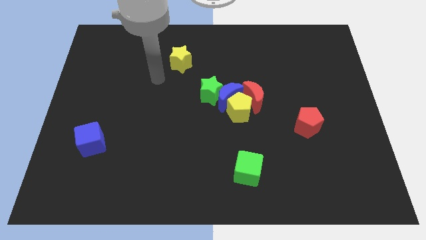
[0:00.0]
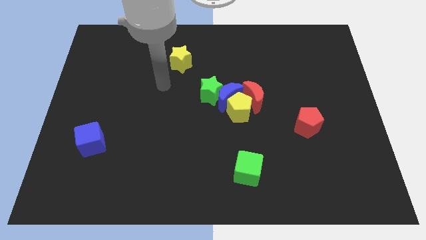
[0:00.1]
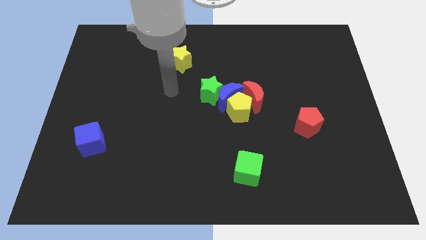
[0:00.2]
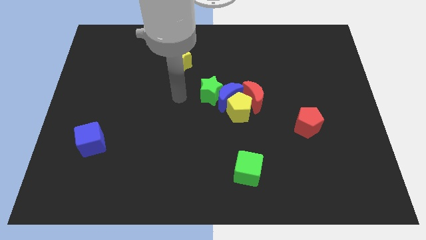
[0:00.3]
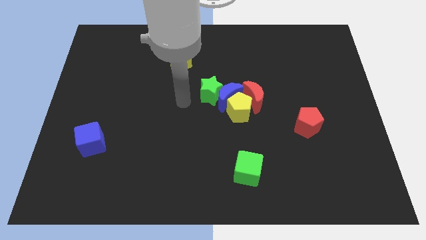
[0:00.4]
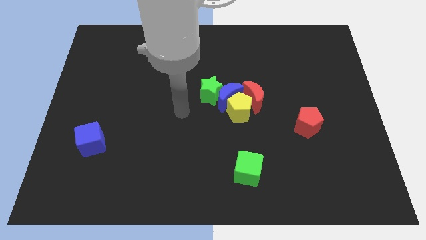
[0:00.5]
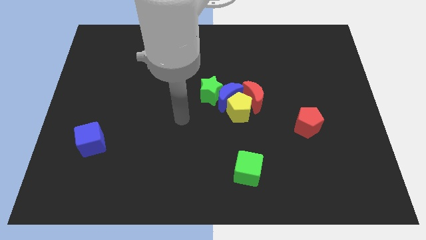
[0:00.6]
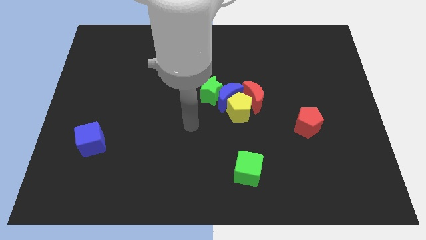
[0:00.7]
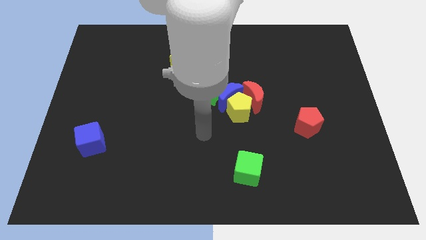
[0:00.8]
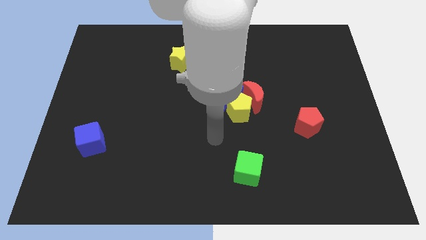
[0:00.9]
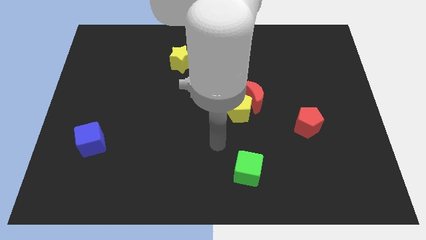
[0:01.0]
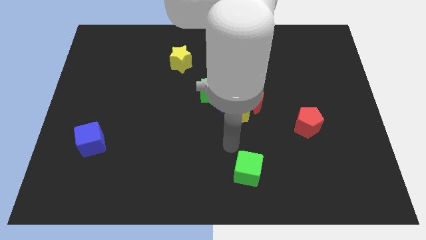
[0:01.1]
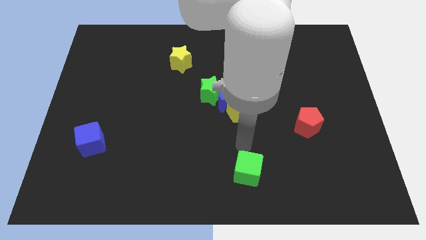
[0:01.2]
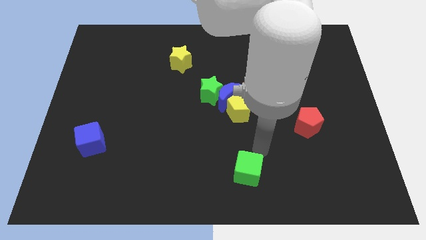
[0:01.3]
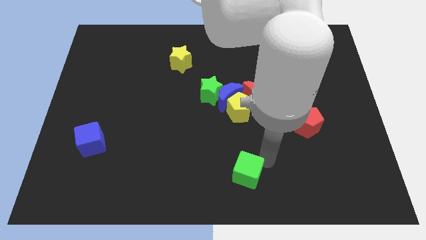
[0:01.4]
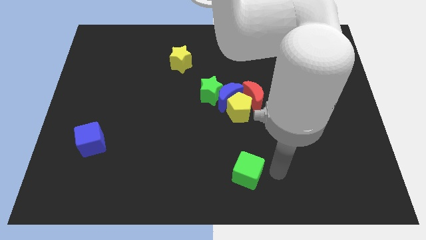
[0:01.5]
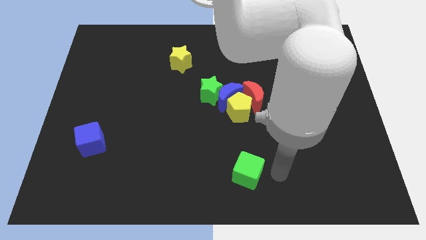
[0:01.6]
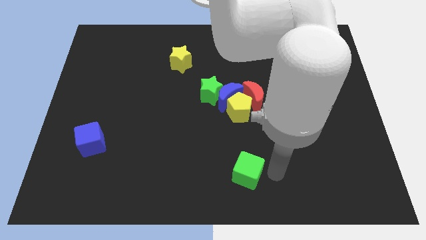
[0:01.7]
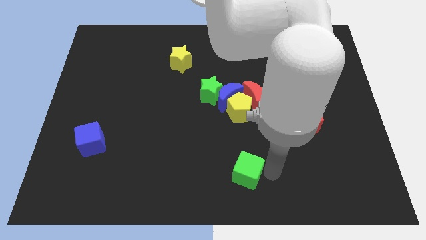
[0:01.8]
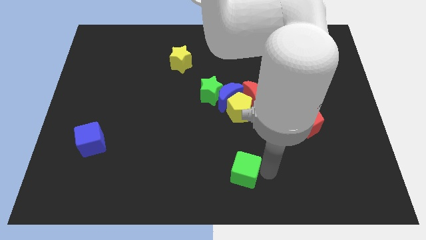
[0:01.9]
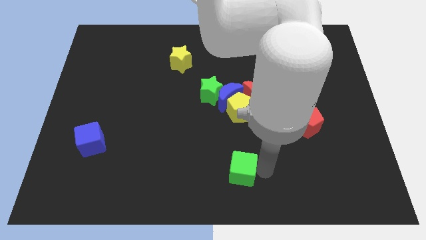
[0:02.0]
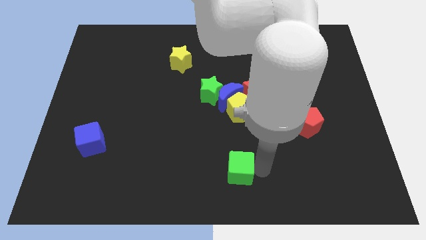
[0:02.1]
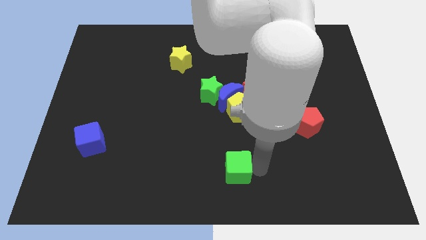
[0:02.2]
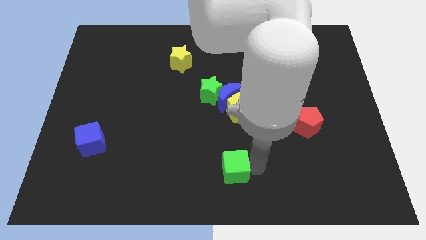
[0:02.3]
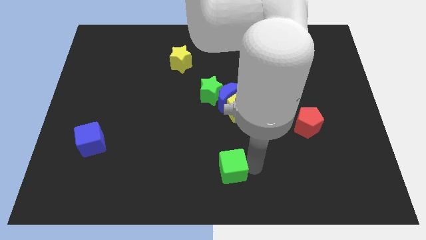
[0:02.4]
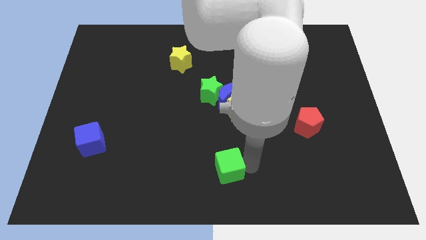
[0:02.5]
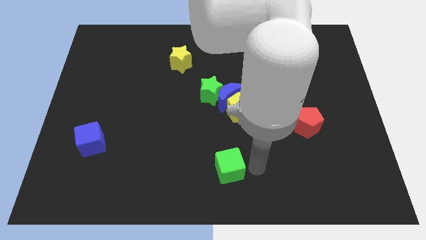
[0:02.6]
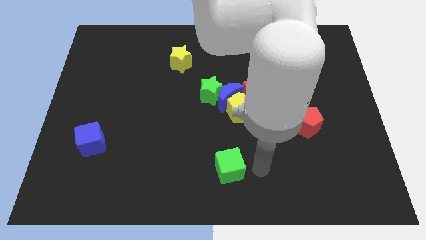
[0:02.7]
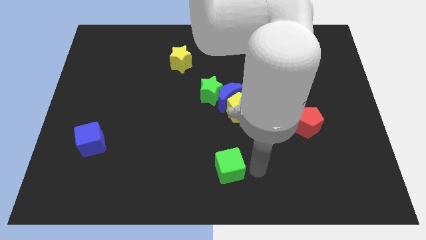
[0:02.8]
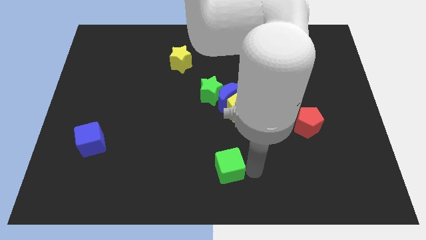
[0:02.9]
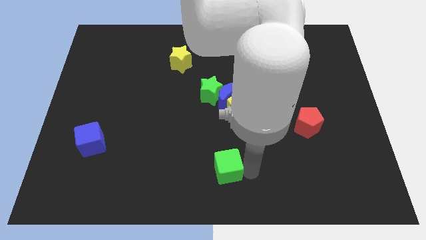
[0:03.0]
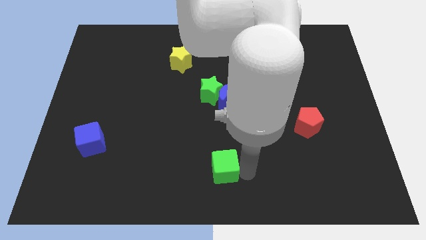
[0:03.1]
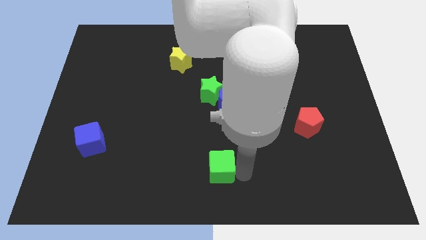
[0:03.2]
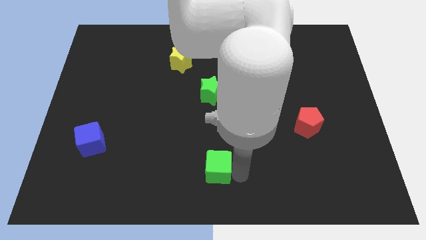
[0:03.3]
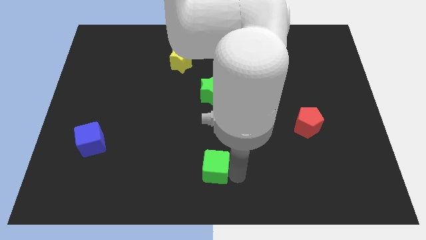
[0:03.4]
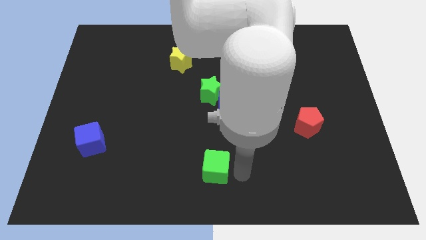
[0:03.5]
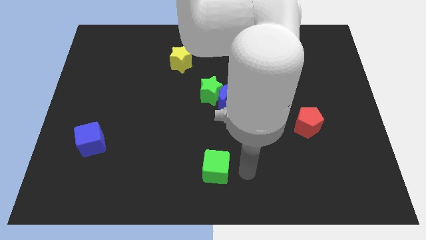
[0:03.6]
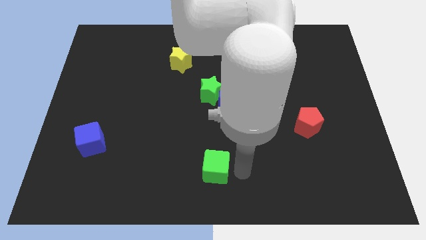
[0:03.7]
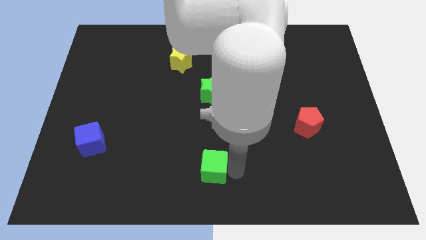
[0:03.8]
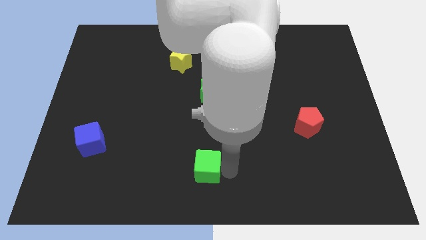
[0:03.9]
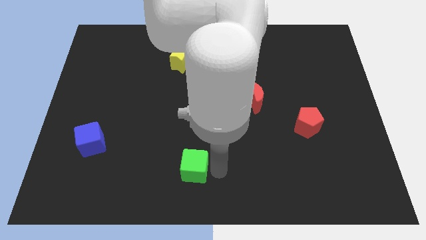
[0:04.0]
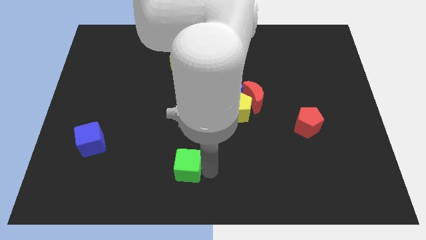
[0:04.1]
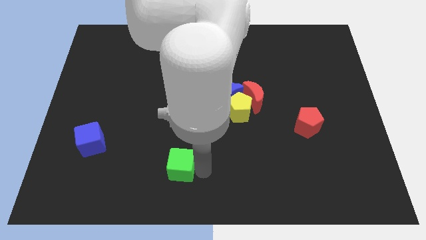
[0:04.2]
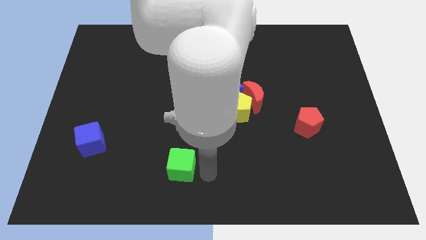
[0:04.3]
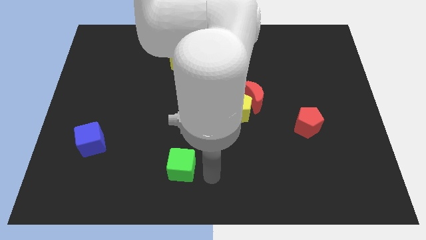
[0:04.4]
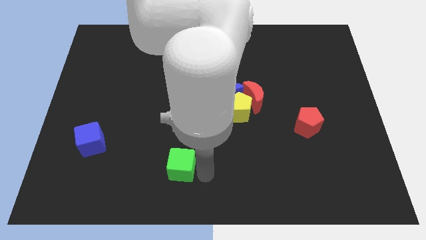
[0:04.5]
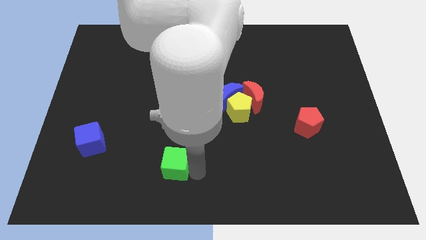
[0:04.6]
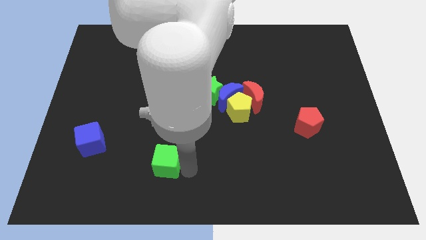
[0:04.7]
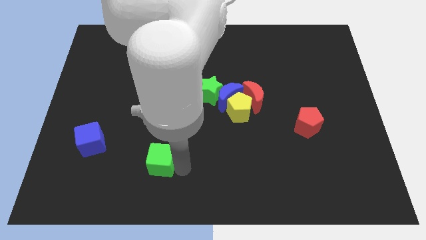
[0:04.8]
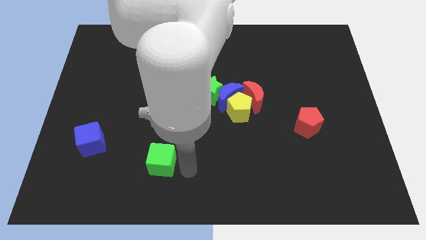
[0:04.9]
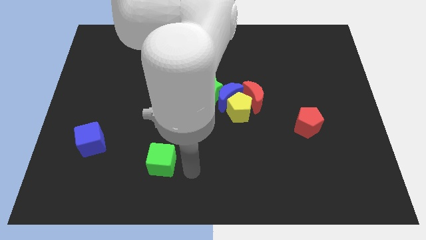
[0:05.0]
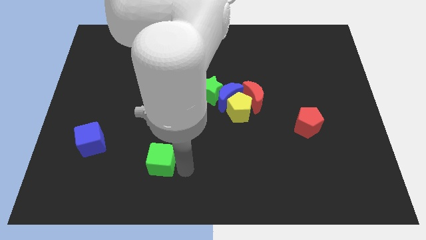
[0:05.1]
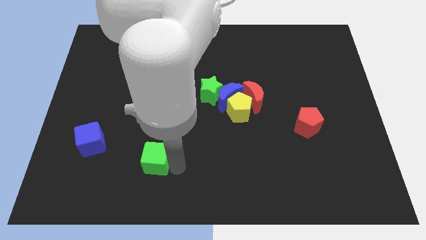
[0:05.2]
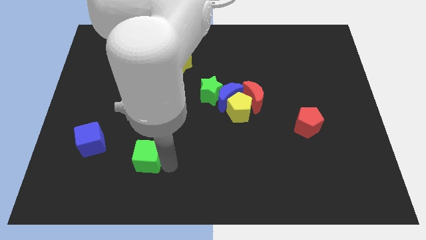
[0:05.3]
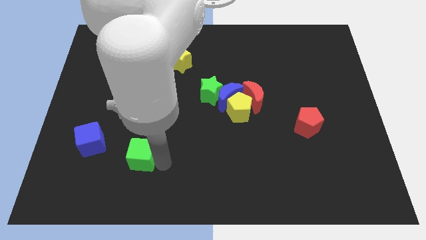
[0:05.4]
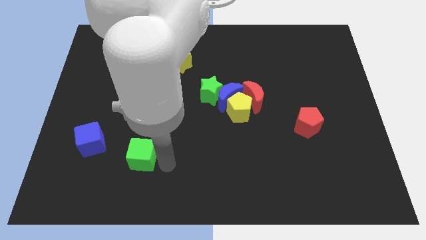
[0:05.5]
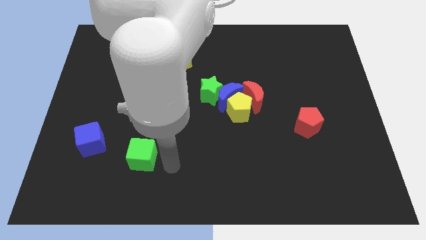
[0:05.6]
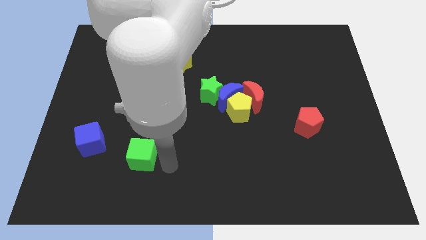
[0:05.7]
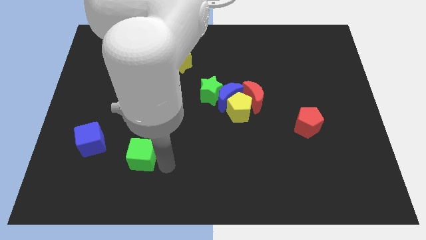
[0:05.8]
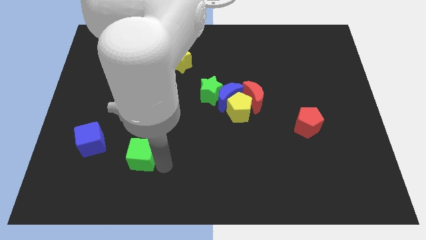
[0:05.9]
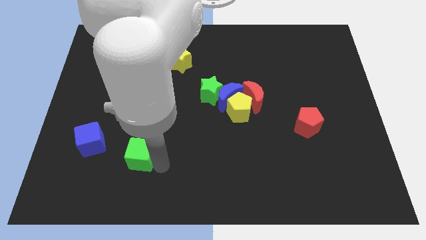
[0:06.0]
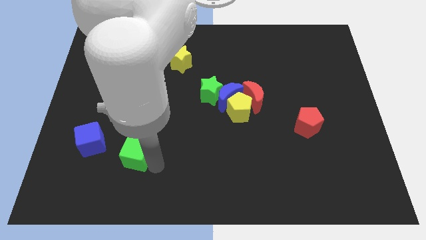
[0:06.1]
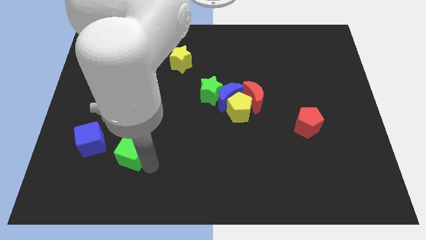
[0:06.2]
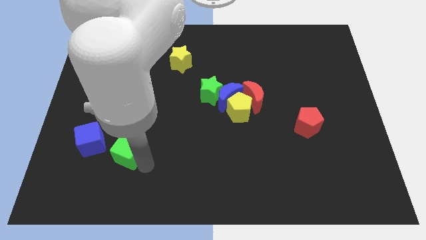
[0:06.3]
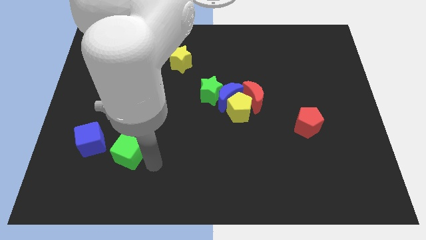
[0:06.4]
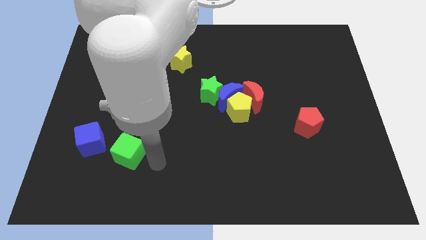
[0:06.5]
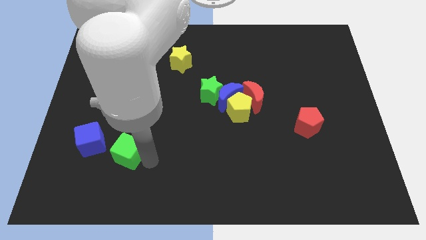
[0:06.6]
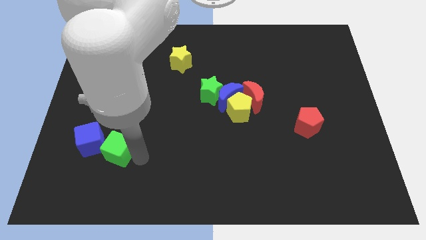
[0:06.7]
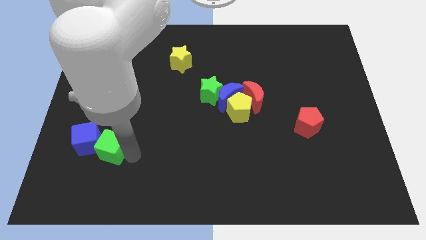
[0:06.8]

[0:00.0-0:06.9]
slide the green cube to the blue cube
